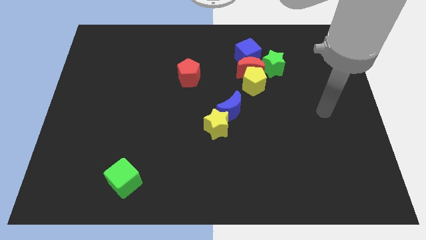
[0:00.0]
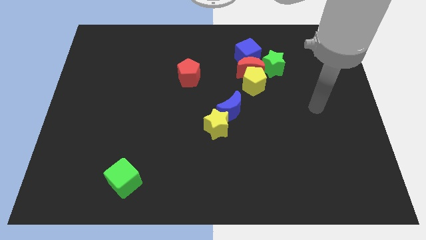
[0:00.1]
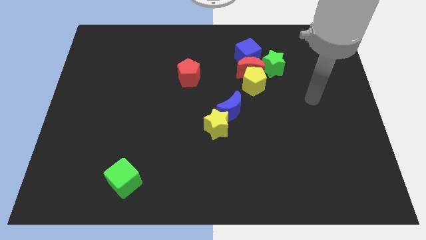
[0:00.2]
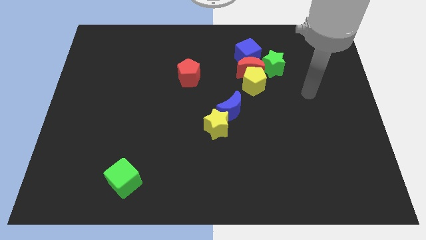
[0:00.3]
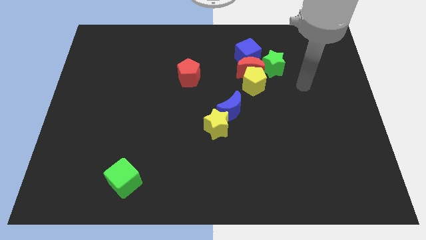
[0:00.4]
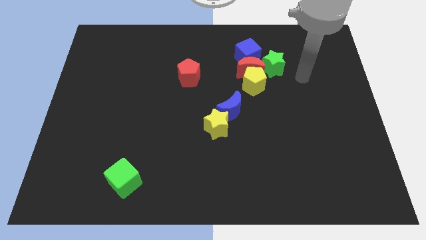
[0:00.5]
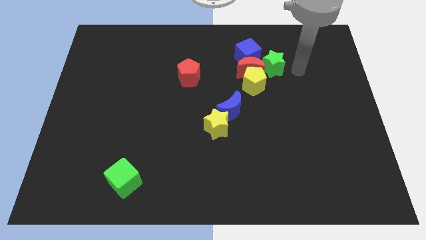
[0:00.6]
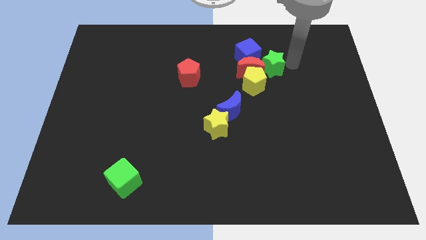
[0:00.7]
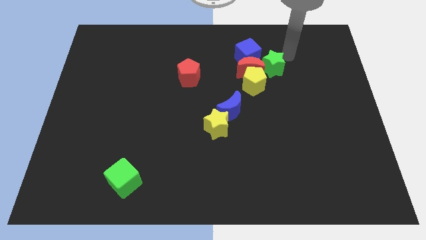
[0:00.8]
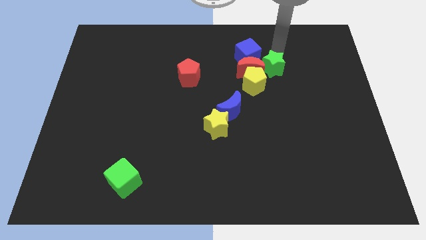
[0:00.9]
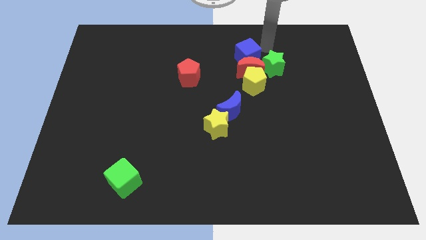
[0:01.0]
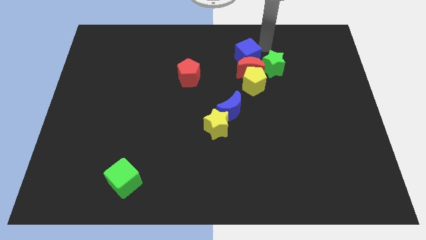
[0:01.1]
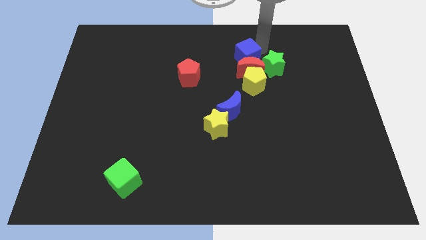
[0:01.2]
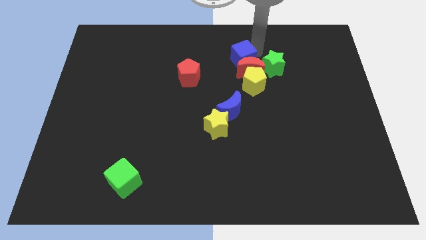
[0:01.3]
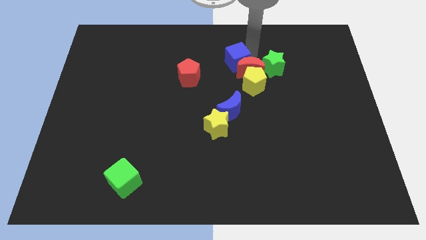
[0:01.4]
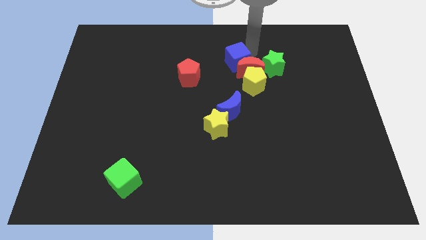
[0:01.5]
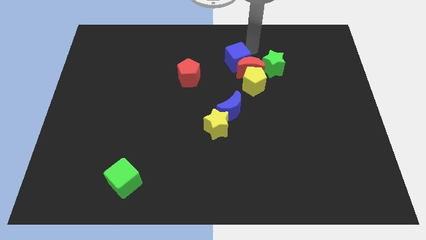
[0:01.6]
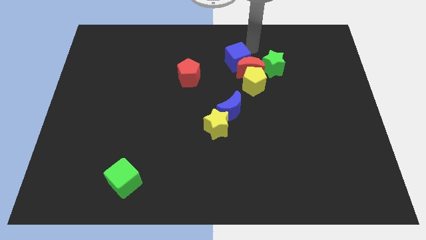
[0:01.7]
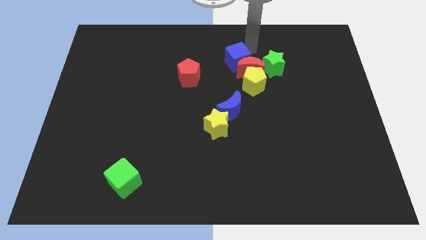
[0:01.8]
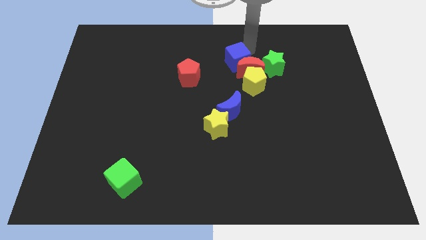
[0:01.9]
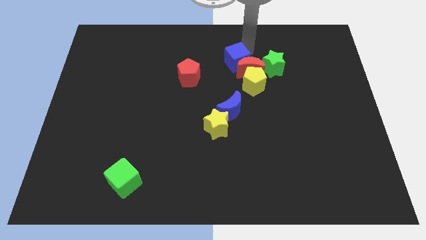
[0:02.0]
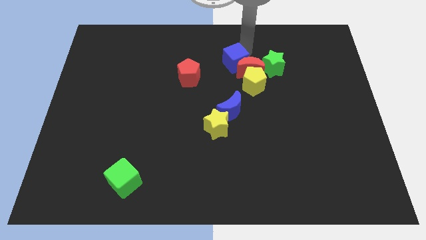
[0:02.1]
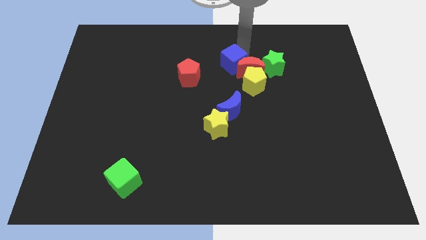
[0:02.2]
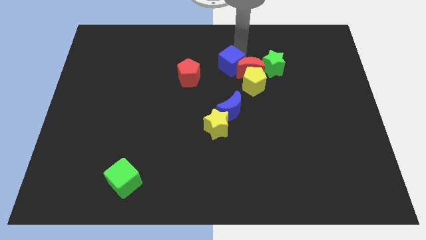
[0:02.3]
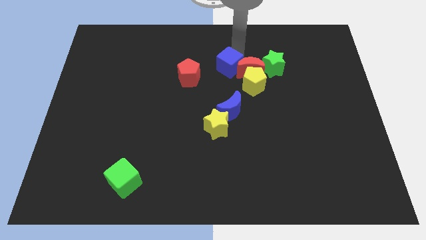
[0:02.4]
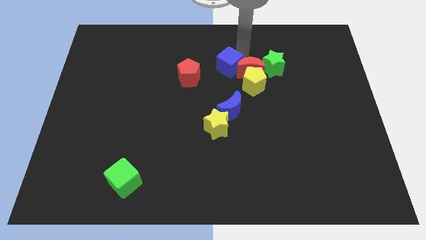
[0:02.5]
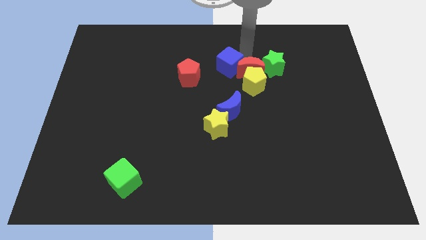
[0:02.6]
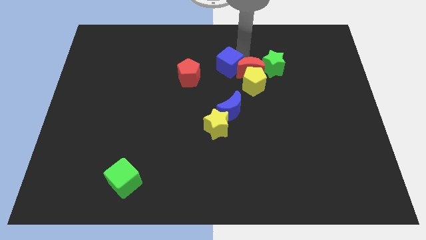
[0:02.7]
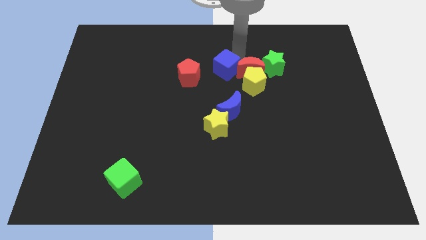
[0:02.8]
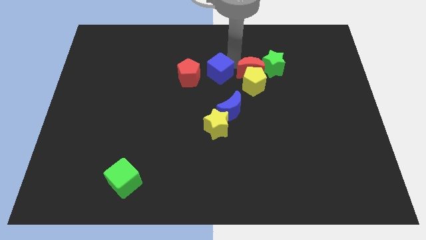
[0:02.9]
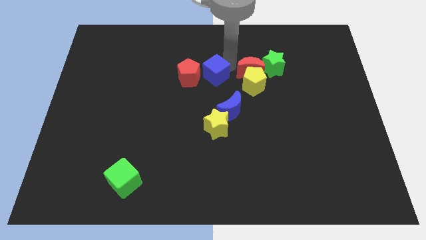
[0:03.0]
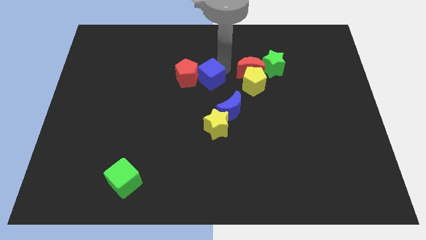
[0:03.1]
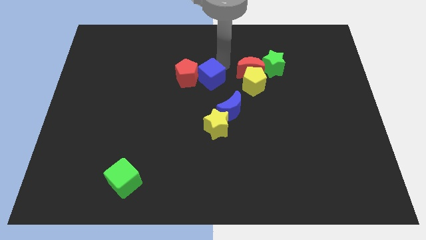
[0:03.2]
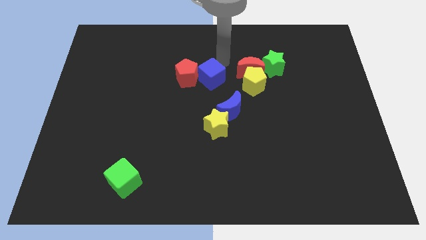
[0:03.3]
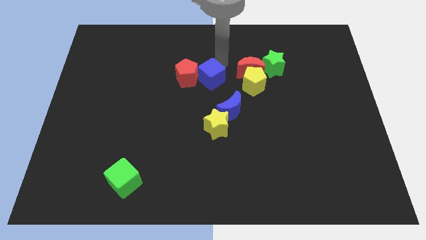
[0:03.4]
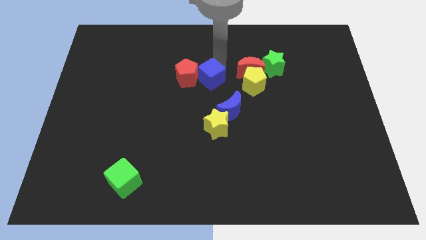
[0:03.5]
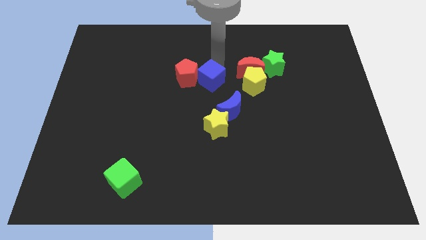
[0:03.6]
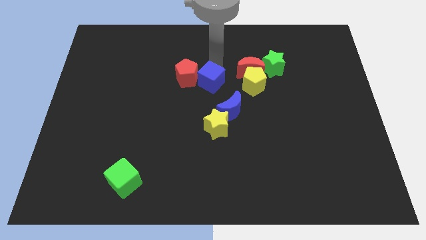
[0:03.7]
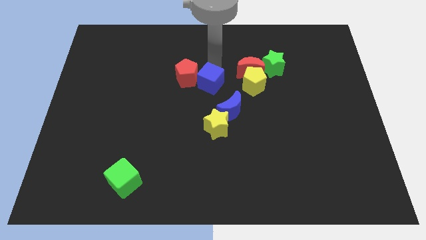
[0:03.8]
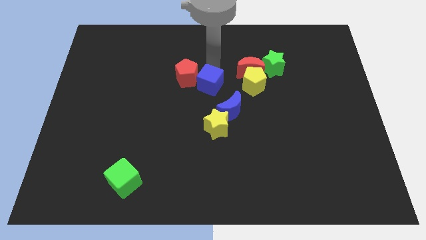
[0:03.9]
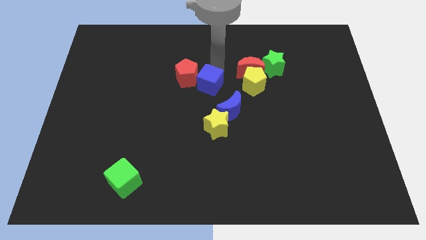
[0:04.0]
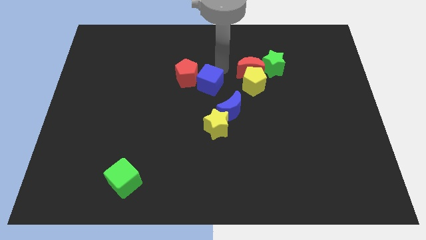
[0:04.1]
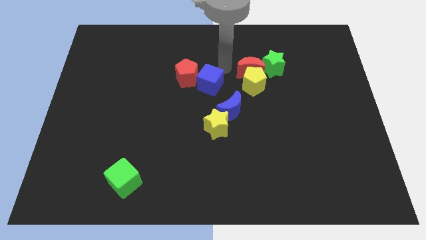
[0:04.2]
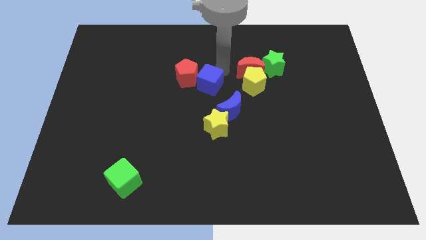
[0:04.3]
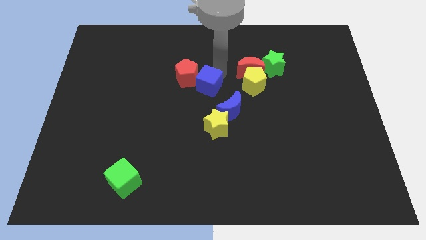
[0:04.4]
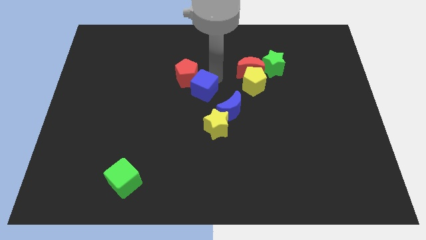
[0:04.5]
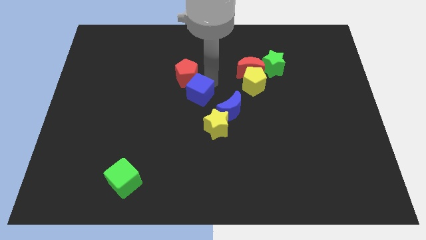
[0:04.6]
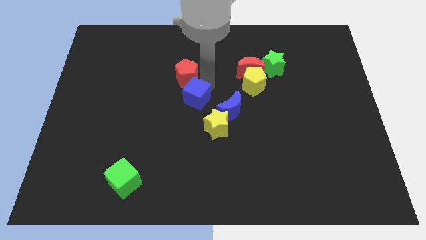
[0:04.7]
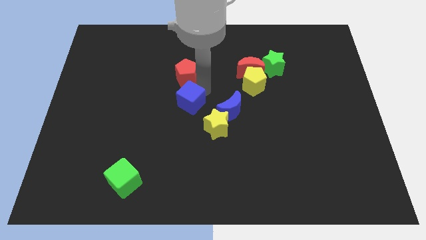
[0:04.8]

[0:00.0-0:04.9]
move the blue cube diagonally down and to the left

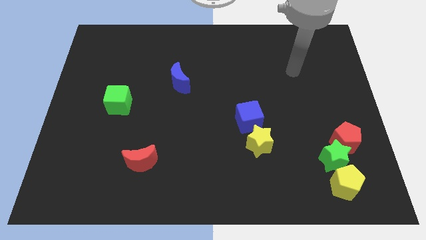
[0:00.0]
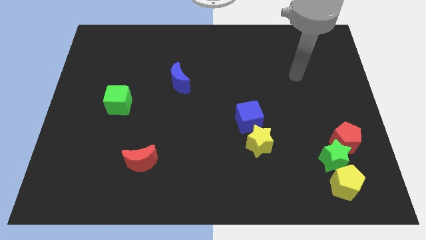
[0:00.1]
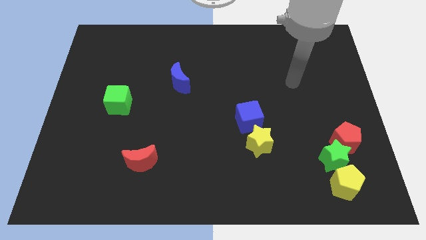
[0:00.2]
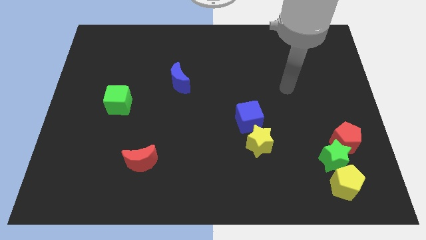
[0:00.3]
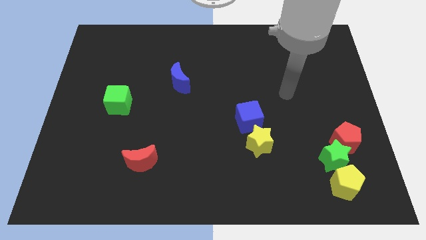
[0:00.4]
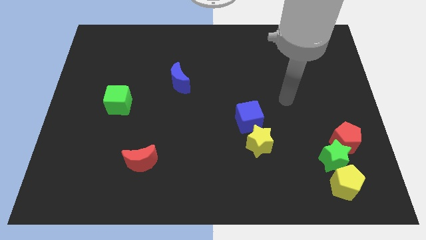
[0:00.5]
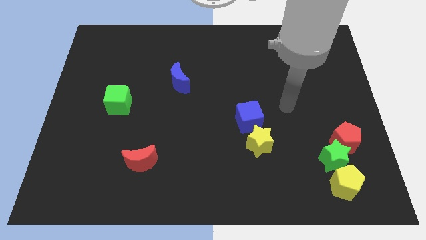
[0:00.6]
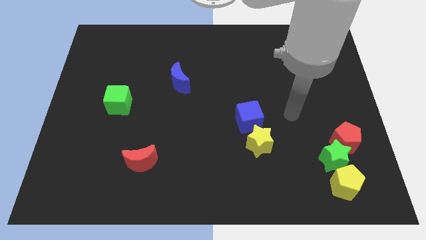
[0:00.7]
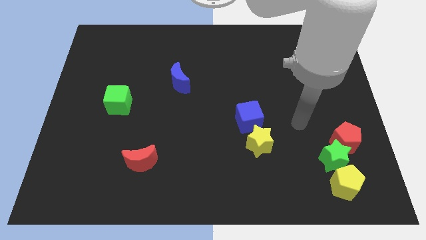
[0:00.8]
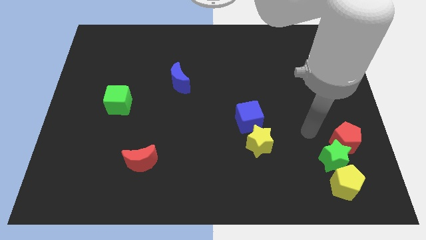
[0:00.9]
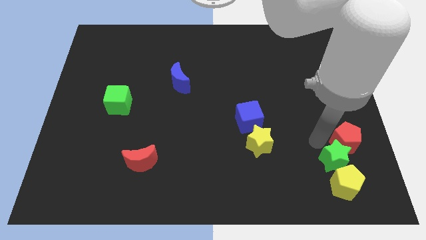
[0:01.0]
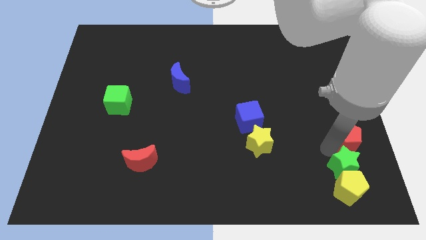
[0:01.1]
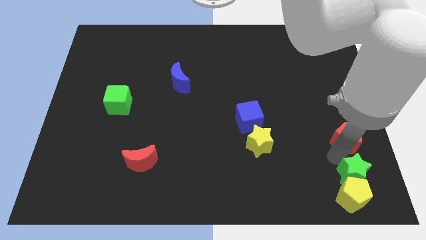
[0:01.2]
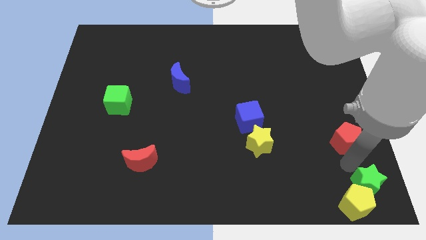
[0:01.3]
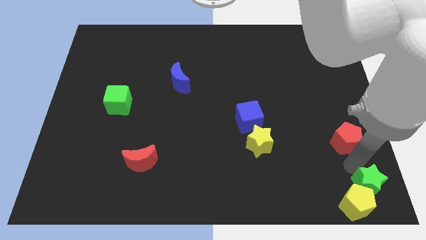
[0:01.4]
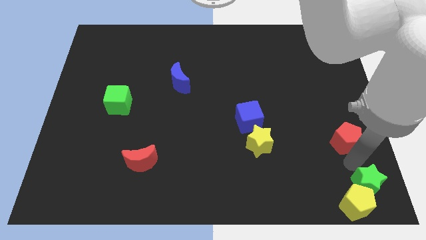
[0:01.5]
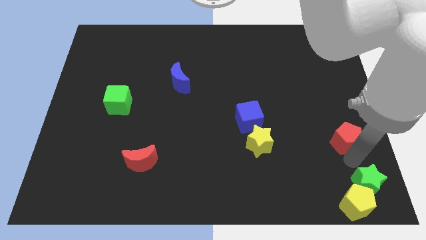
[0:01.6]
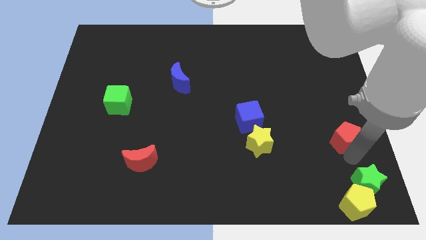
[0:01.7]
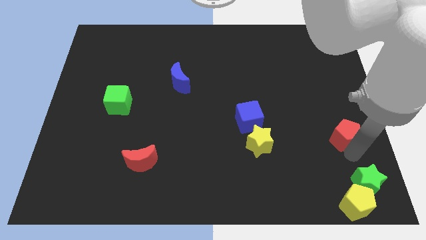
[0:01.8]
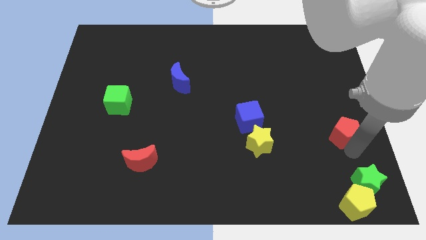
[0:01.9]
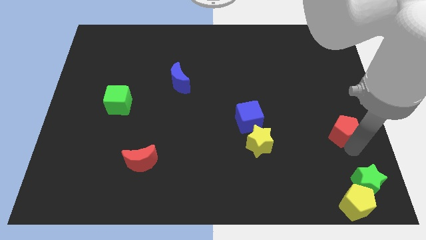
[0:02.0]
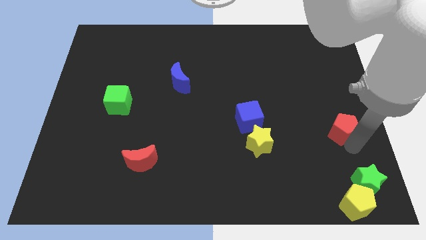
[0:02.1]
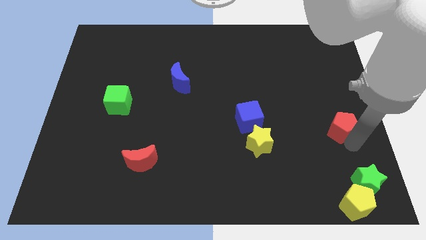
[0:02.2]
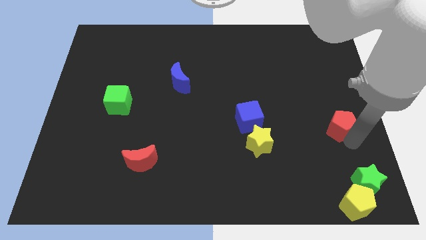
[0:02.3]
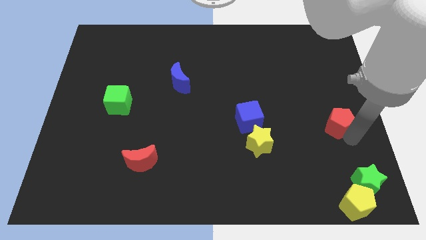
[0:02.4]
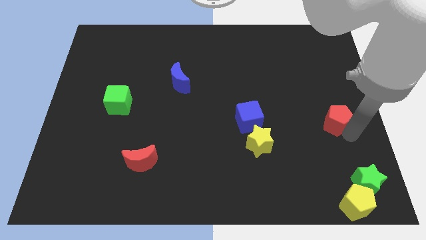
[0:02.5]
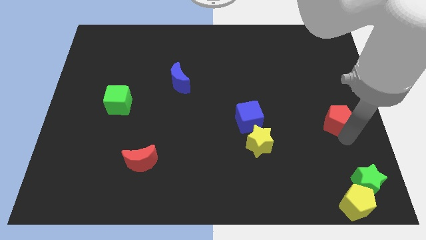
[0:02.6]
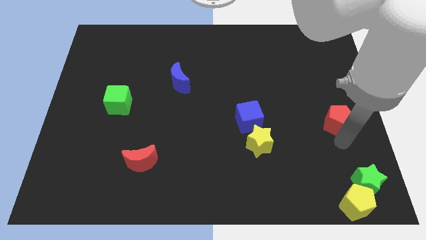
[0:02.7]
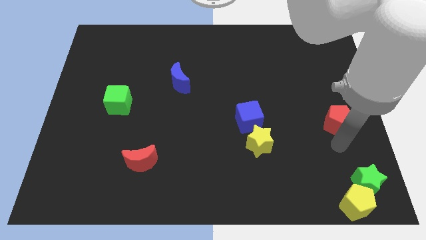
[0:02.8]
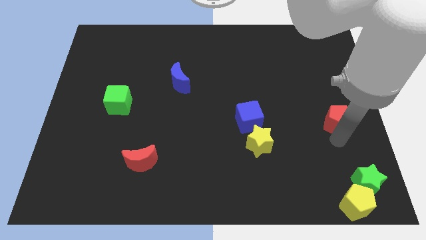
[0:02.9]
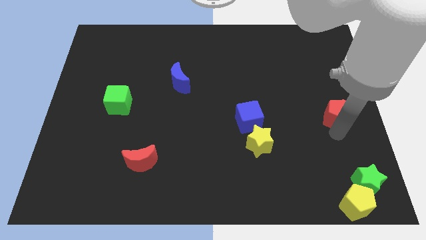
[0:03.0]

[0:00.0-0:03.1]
push the red pentagon upwards a little

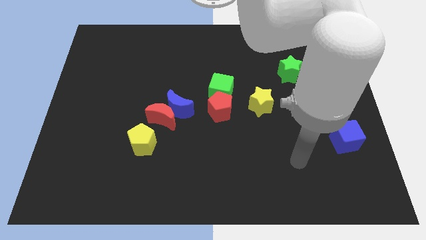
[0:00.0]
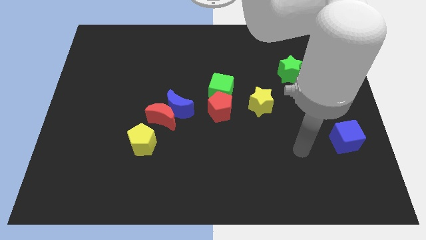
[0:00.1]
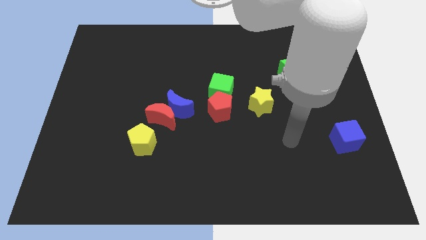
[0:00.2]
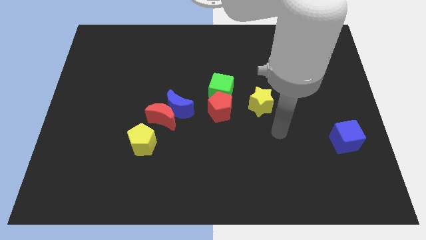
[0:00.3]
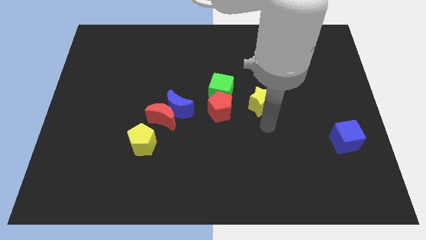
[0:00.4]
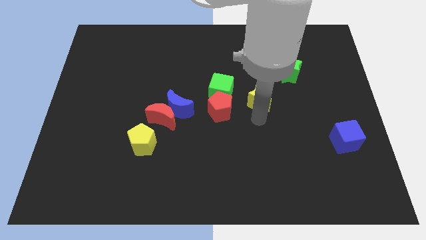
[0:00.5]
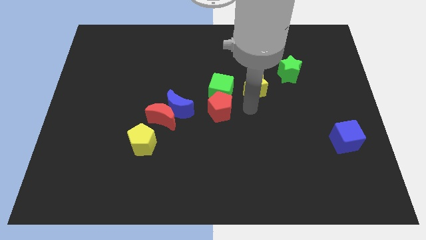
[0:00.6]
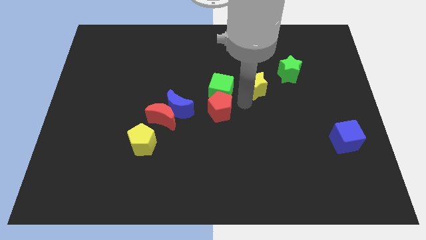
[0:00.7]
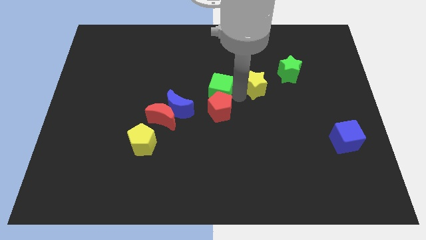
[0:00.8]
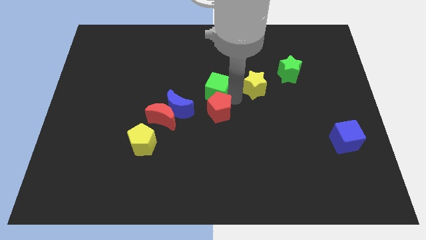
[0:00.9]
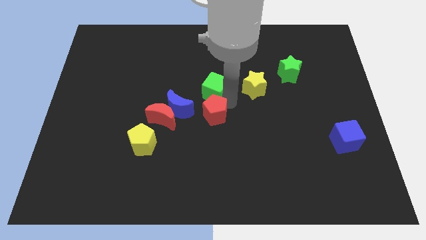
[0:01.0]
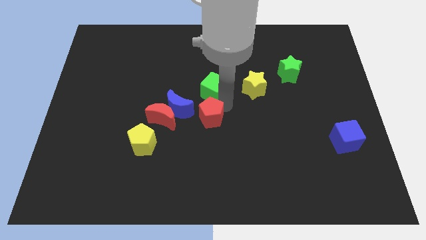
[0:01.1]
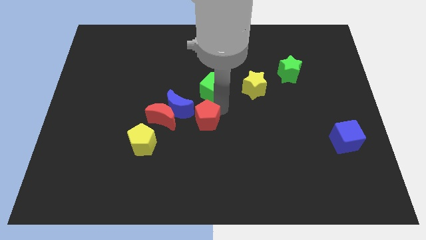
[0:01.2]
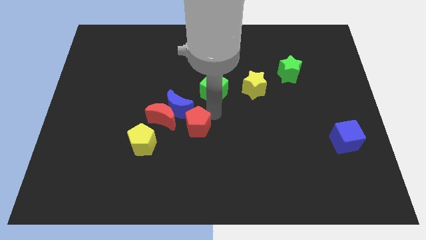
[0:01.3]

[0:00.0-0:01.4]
slightly slide the red pentagon diagonally downwards and to the left
